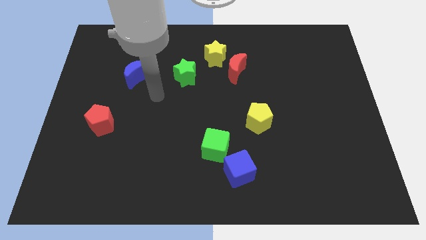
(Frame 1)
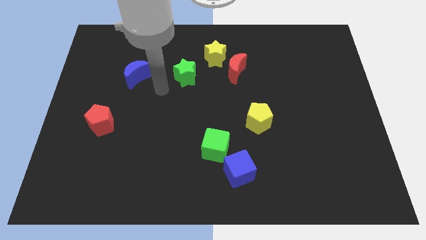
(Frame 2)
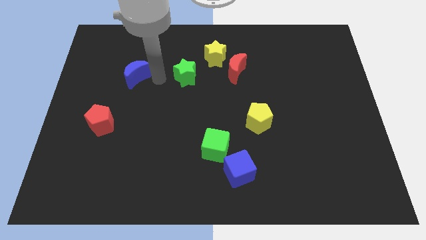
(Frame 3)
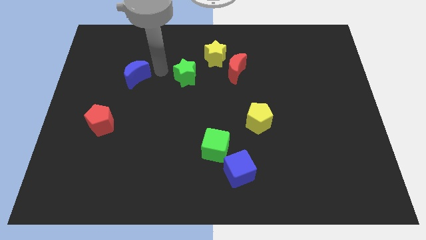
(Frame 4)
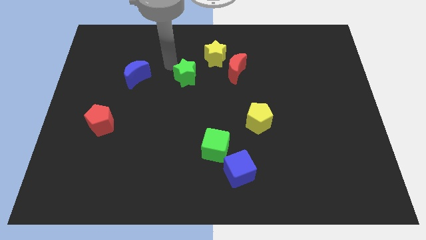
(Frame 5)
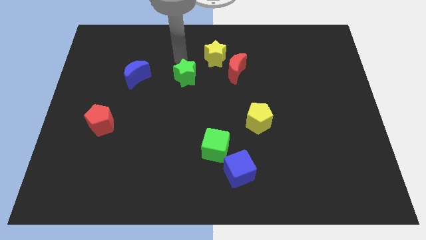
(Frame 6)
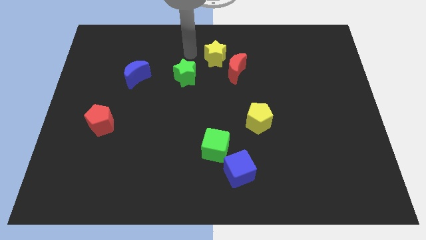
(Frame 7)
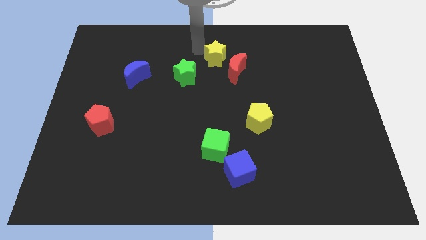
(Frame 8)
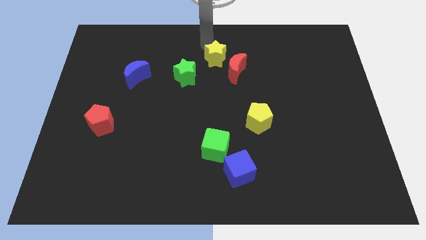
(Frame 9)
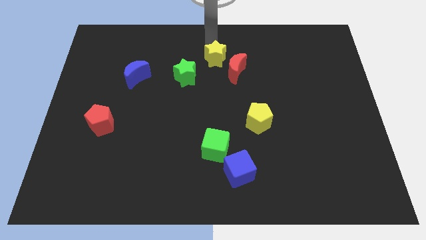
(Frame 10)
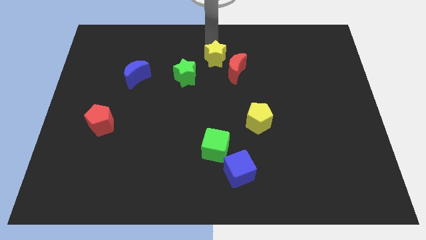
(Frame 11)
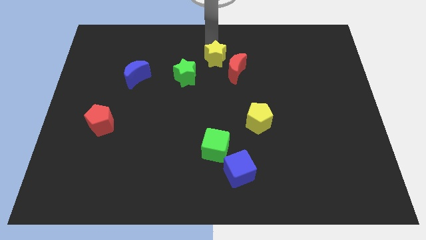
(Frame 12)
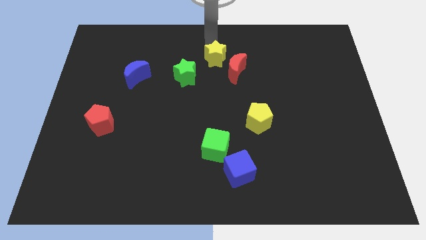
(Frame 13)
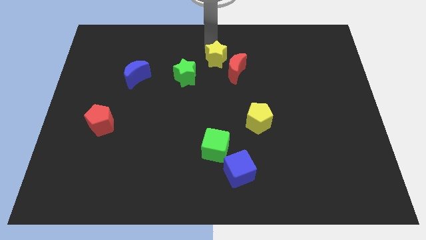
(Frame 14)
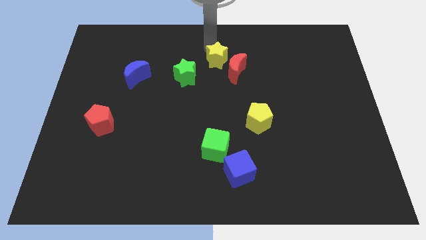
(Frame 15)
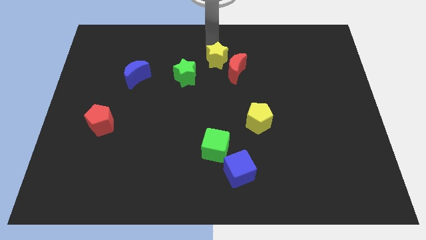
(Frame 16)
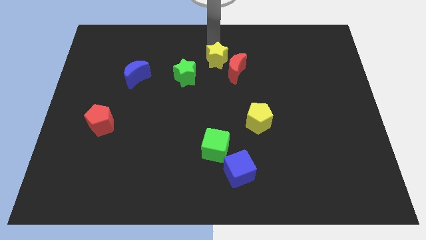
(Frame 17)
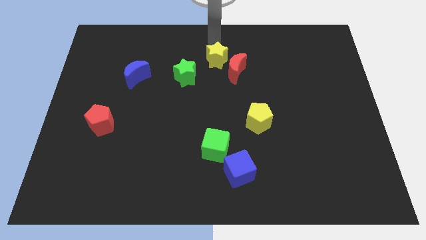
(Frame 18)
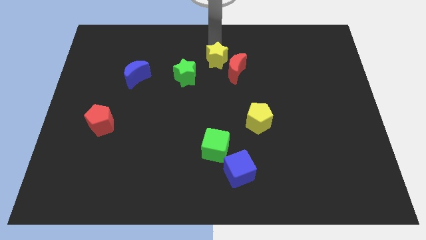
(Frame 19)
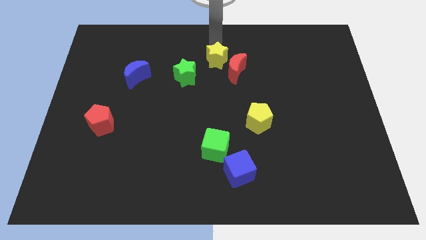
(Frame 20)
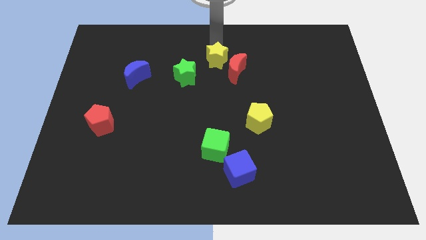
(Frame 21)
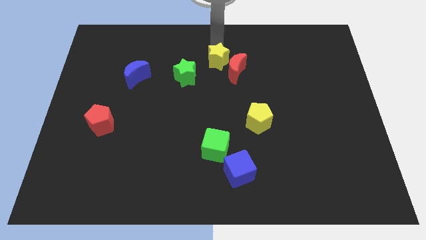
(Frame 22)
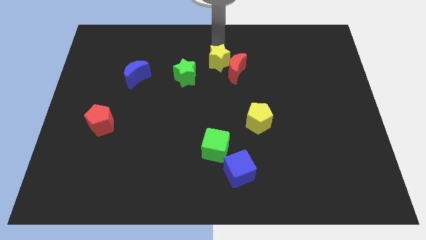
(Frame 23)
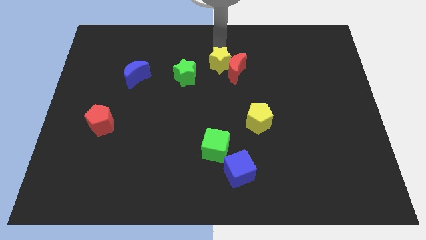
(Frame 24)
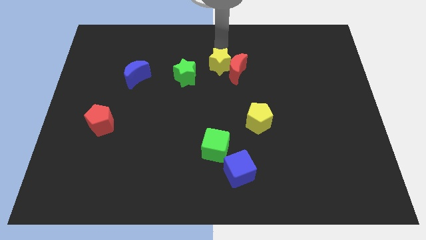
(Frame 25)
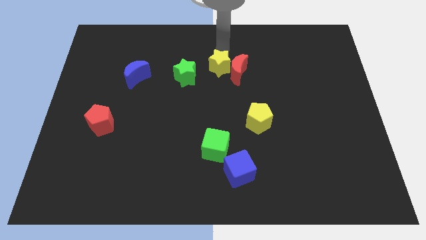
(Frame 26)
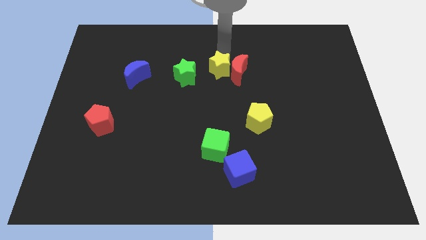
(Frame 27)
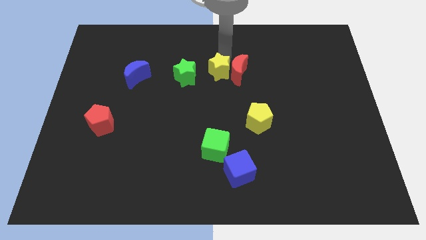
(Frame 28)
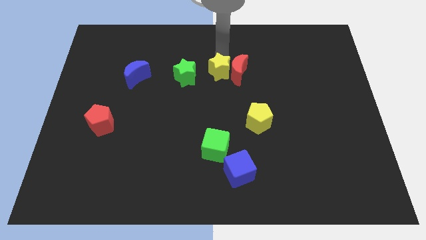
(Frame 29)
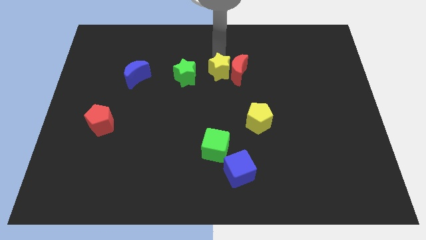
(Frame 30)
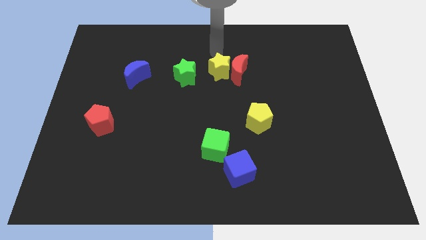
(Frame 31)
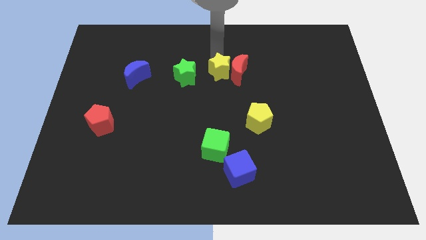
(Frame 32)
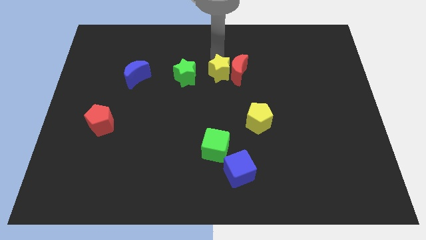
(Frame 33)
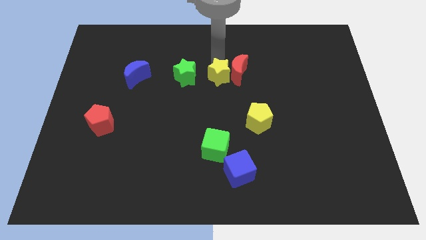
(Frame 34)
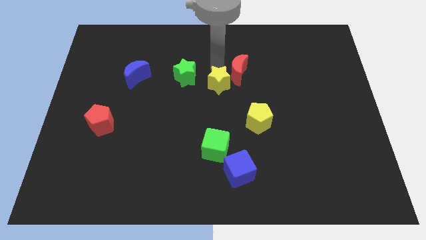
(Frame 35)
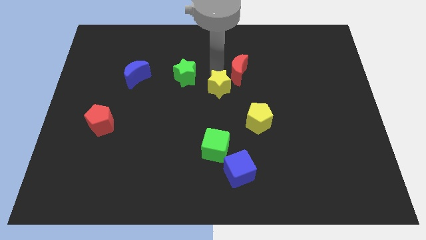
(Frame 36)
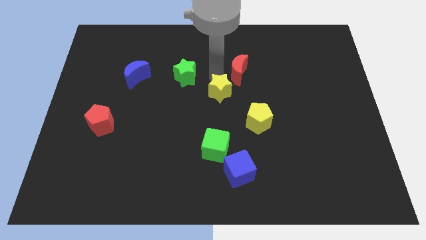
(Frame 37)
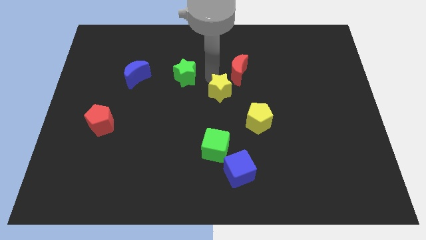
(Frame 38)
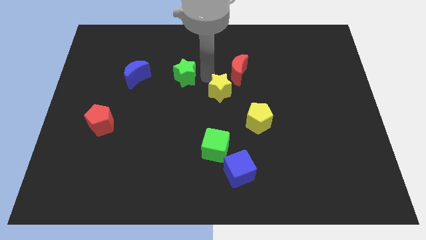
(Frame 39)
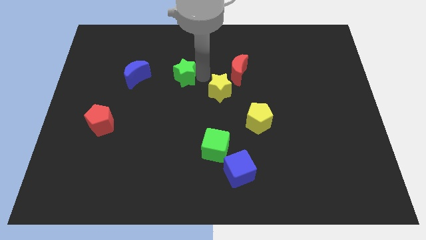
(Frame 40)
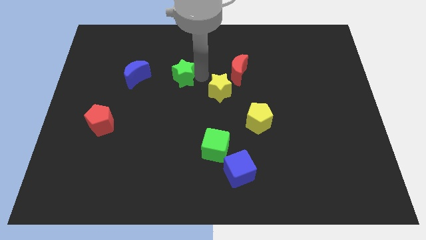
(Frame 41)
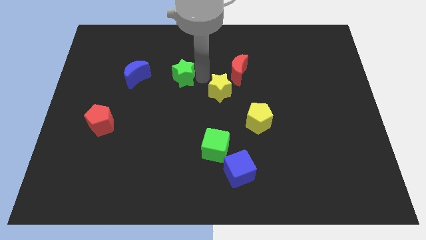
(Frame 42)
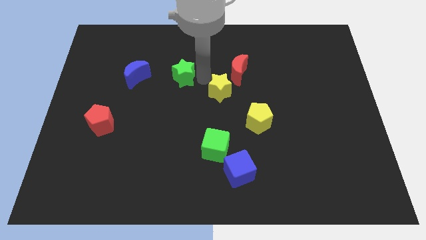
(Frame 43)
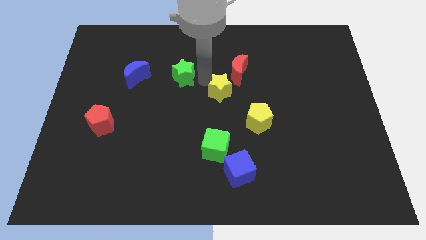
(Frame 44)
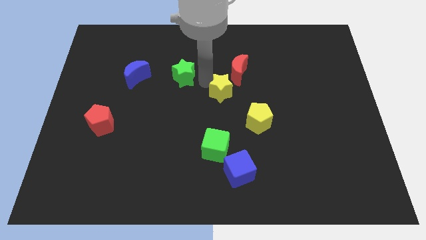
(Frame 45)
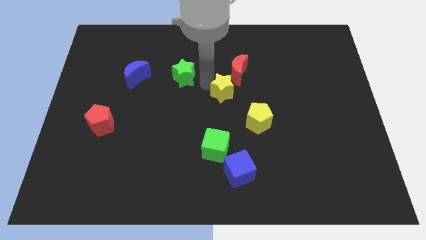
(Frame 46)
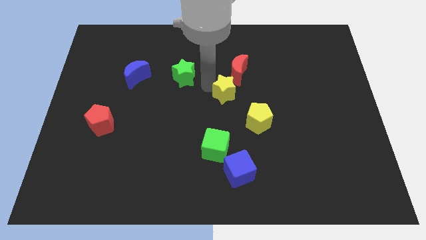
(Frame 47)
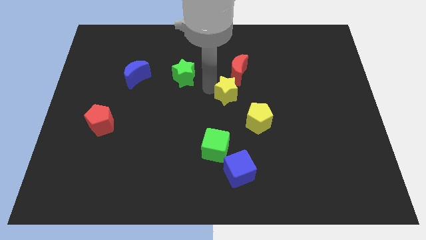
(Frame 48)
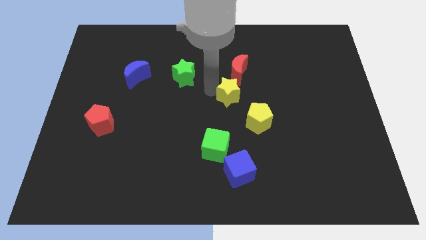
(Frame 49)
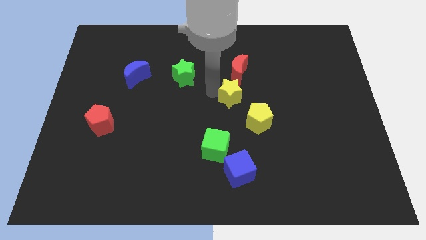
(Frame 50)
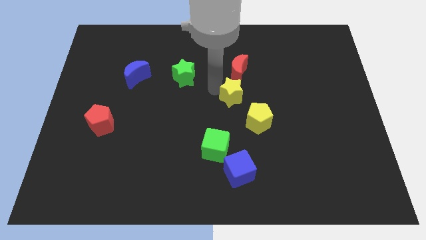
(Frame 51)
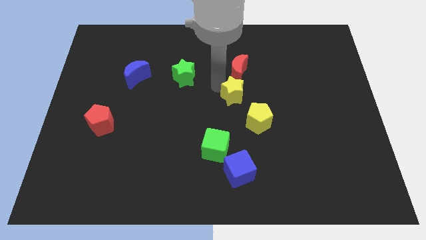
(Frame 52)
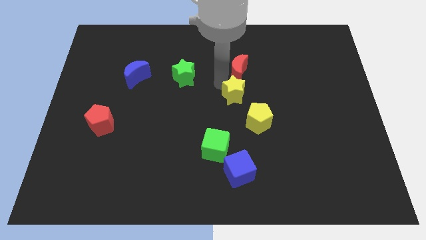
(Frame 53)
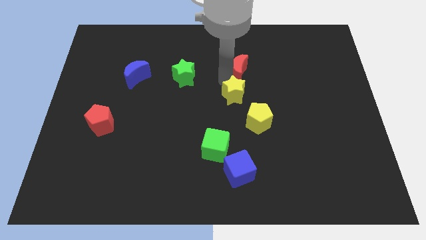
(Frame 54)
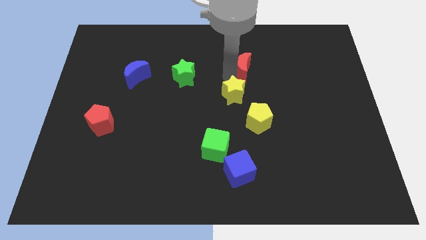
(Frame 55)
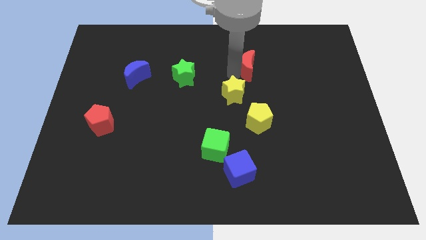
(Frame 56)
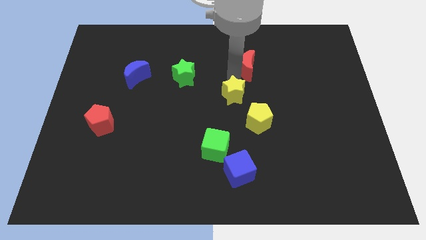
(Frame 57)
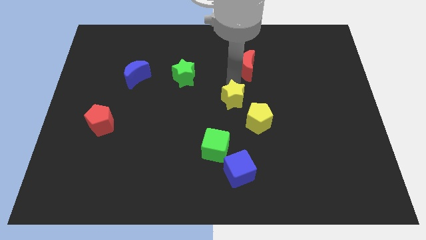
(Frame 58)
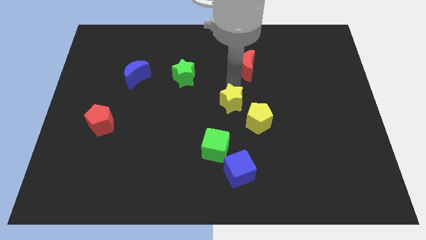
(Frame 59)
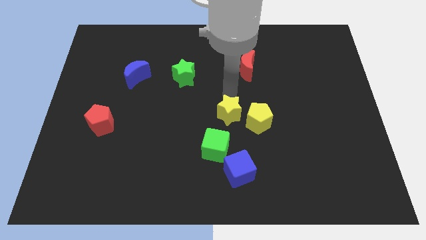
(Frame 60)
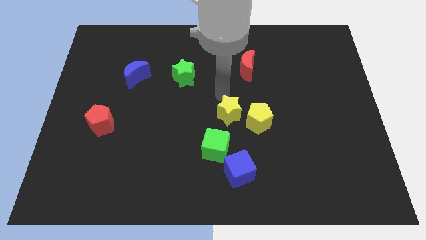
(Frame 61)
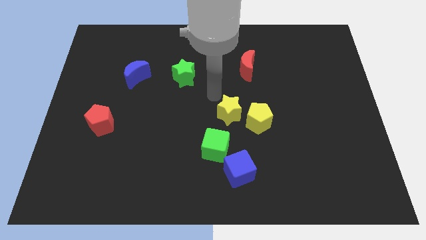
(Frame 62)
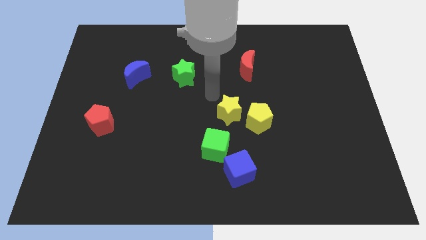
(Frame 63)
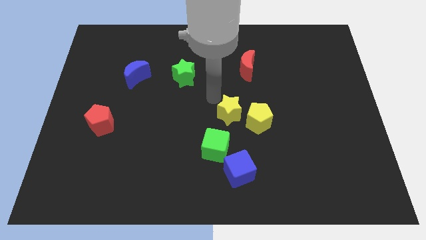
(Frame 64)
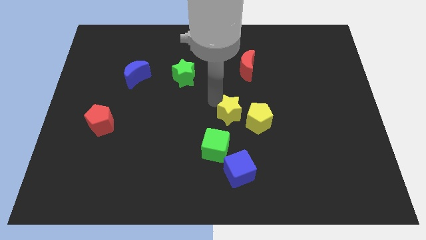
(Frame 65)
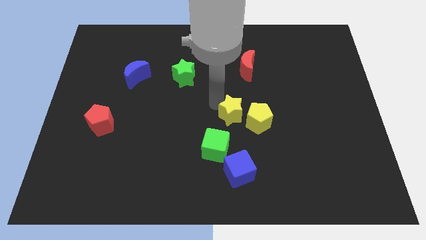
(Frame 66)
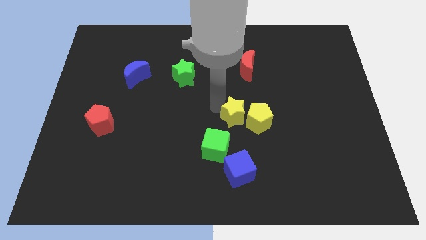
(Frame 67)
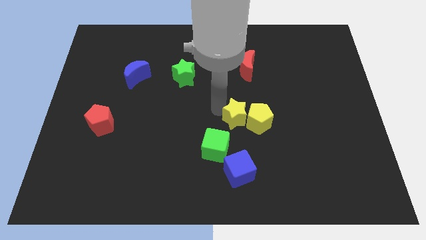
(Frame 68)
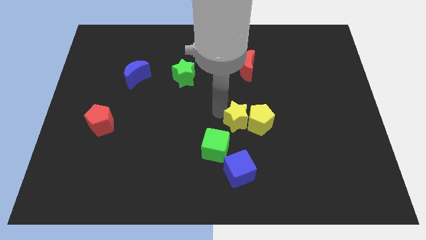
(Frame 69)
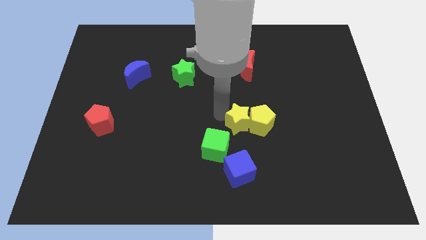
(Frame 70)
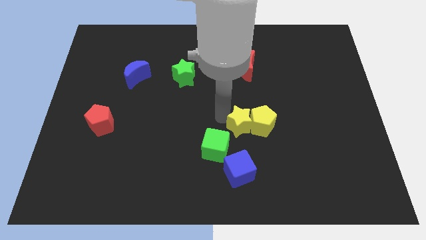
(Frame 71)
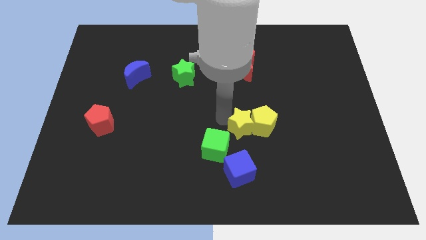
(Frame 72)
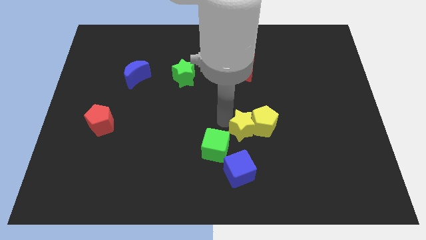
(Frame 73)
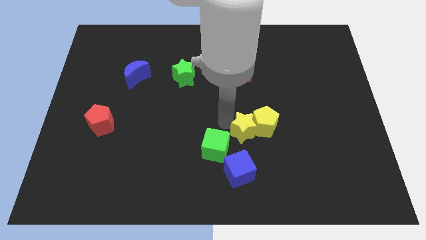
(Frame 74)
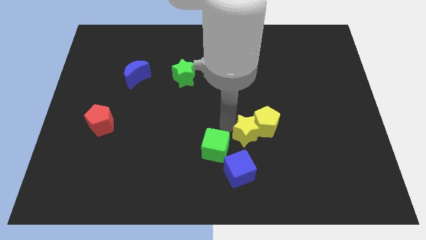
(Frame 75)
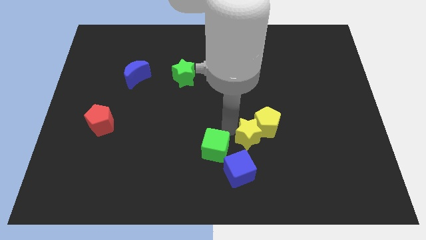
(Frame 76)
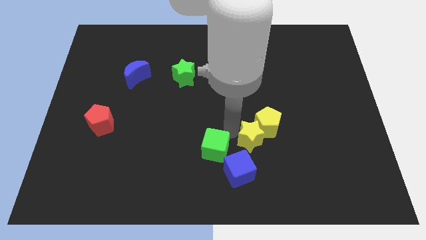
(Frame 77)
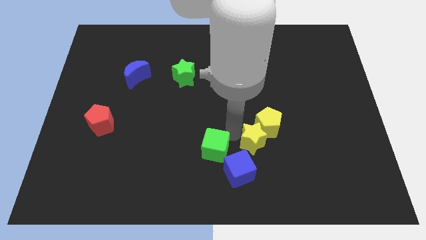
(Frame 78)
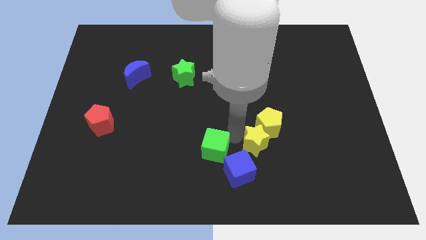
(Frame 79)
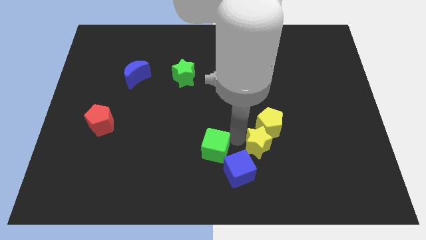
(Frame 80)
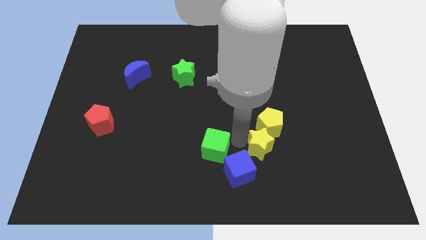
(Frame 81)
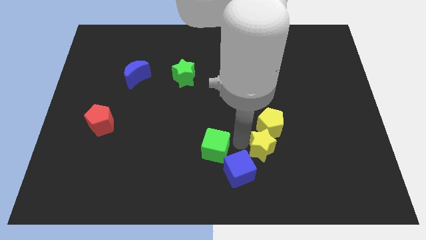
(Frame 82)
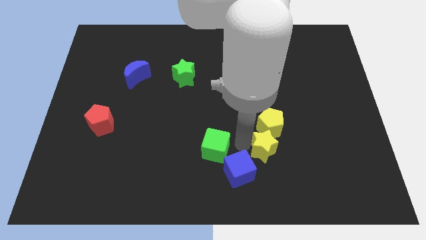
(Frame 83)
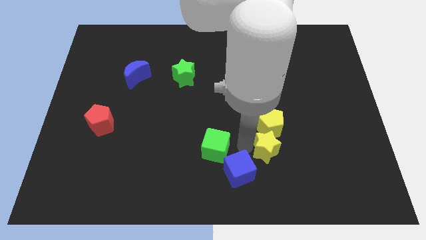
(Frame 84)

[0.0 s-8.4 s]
move the yellow star to the right side of the blue cube
